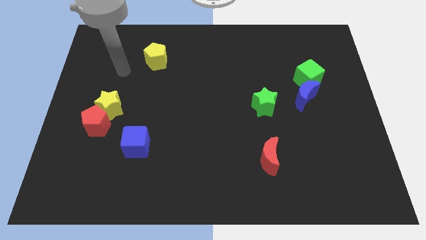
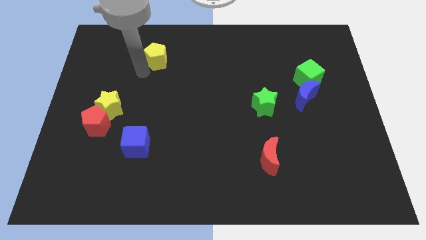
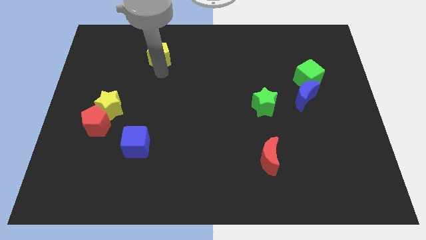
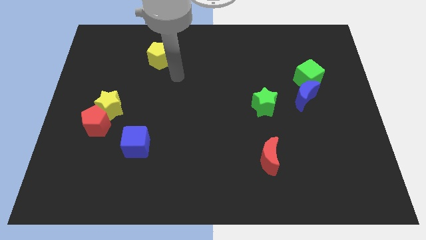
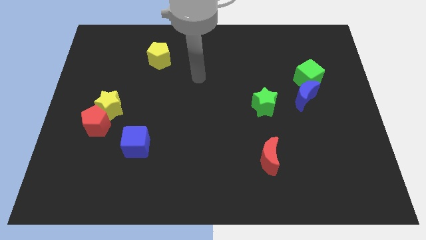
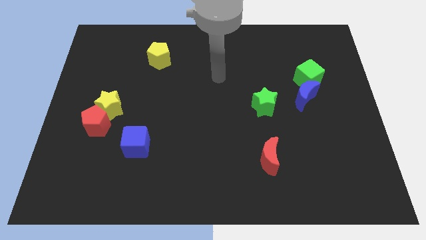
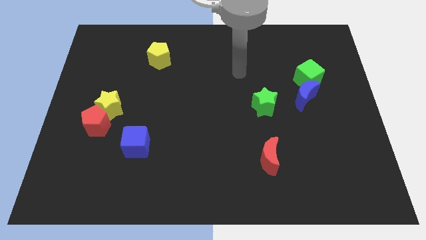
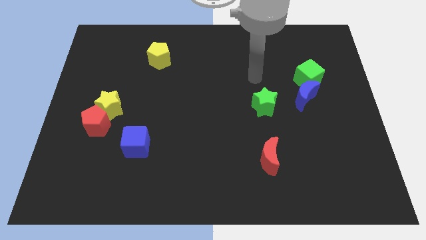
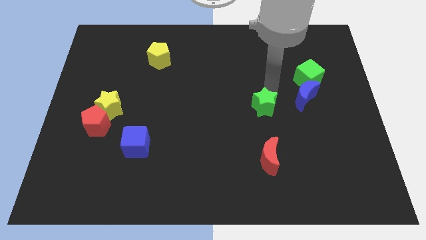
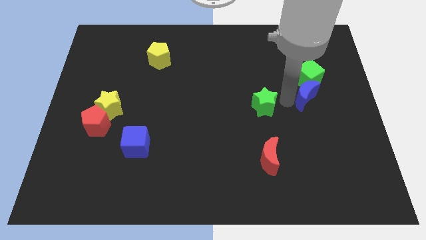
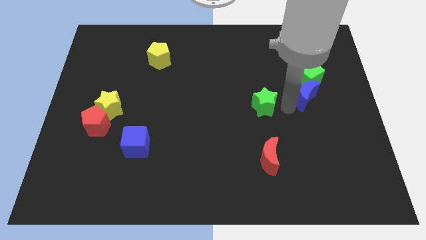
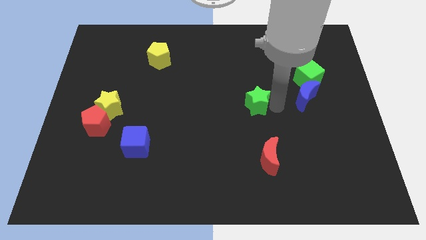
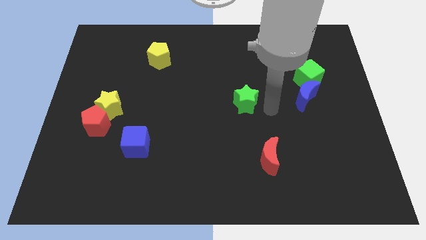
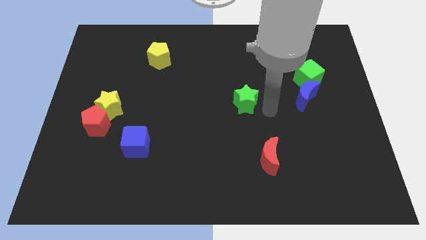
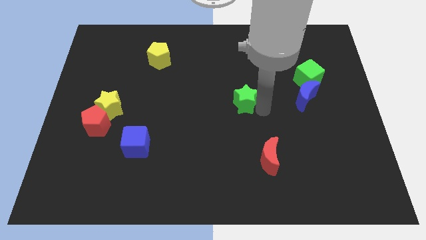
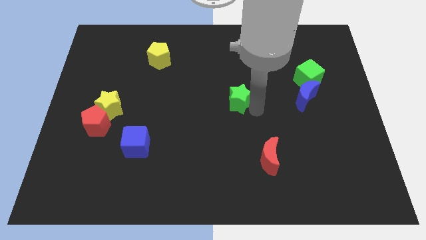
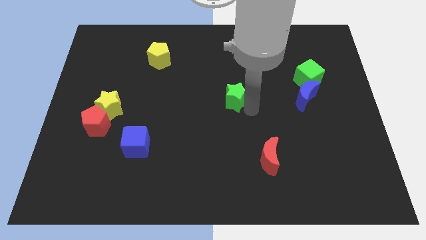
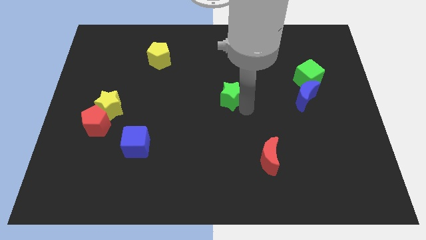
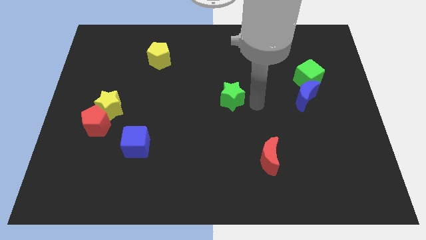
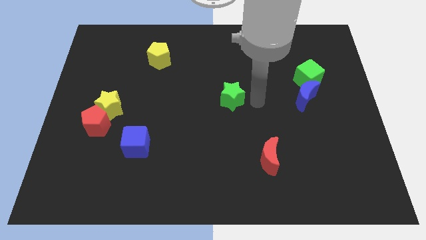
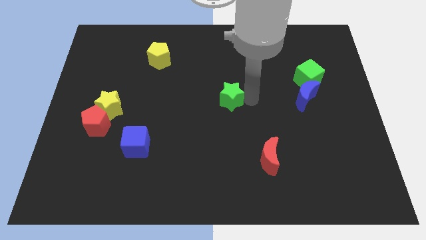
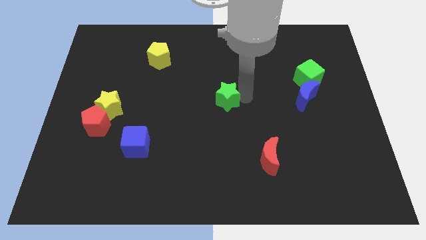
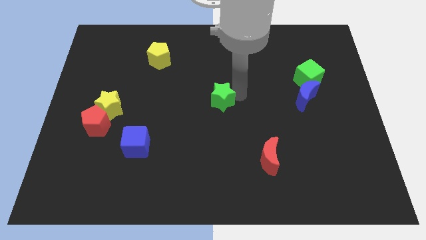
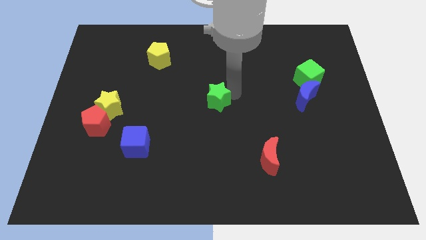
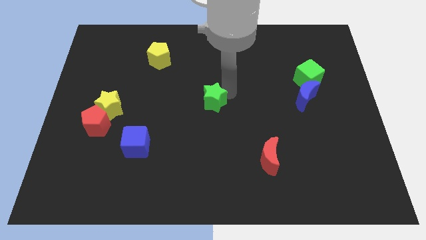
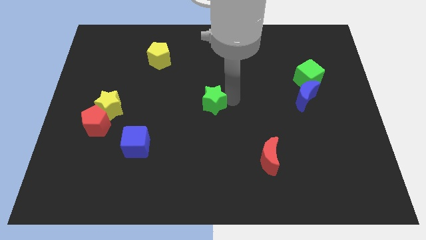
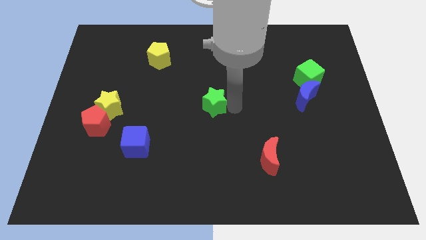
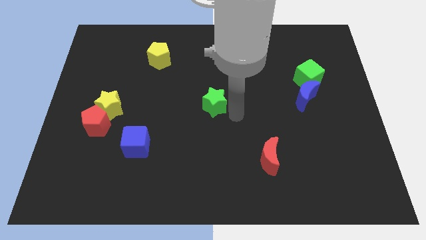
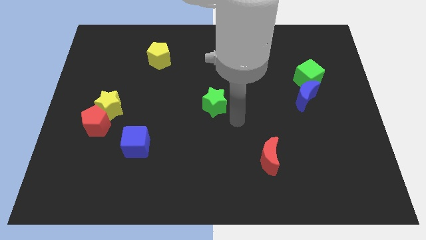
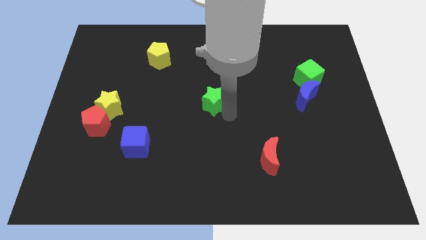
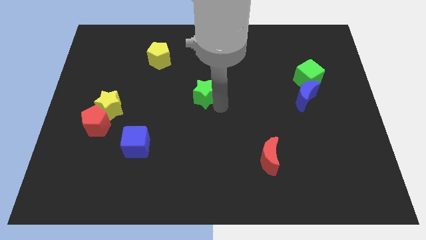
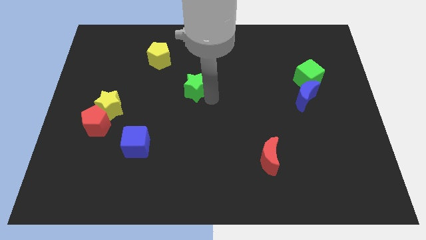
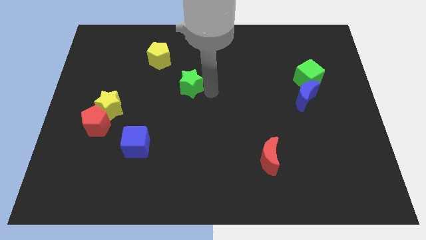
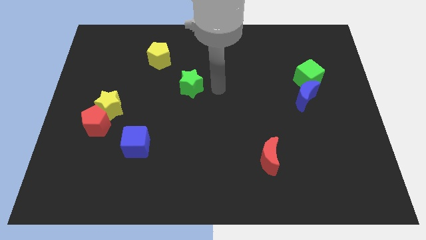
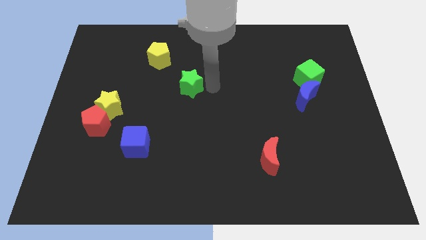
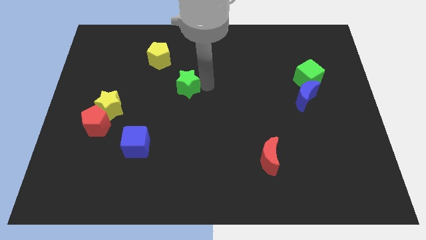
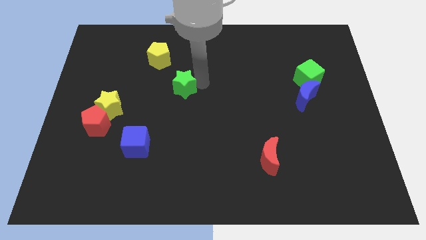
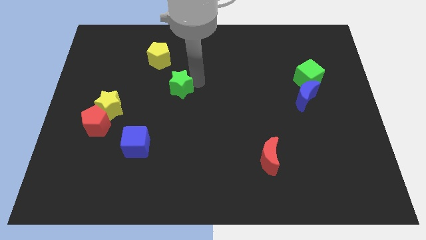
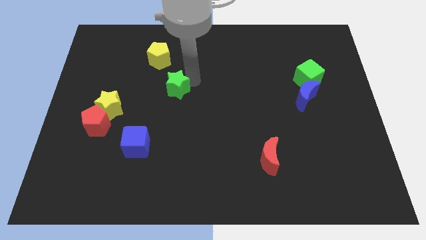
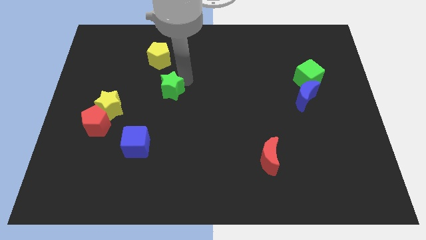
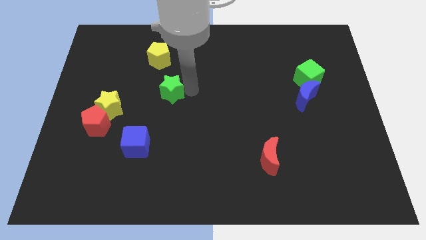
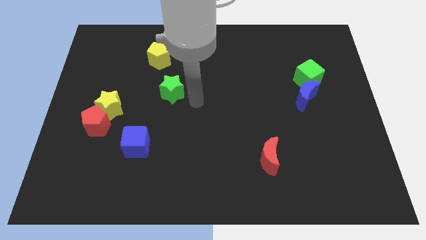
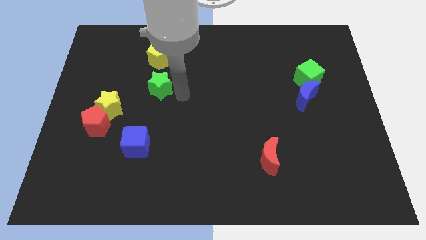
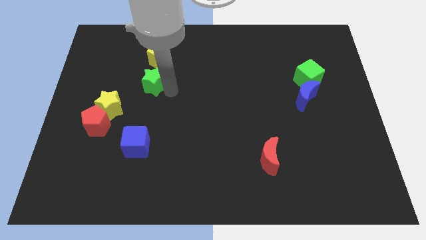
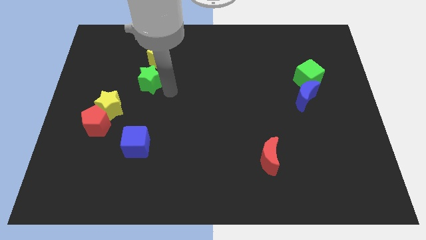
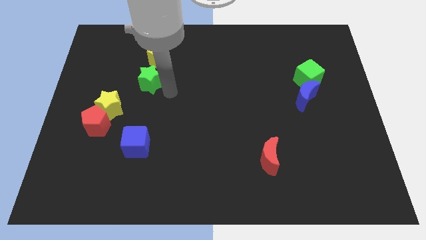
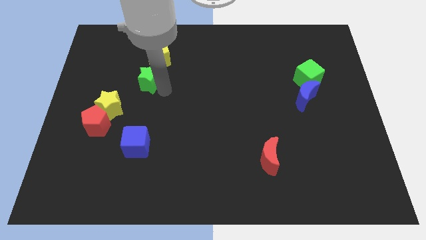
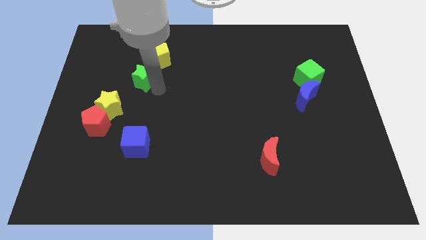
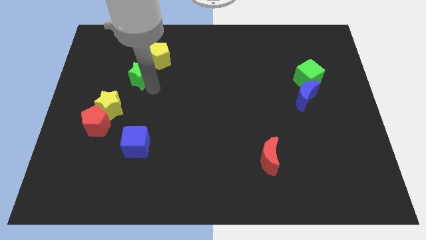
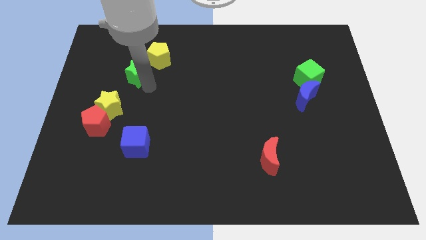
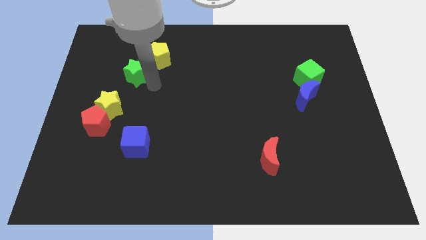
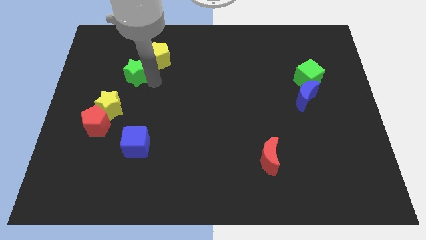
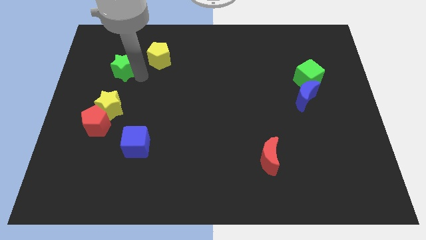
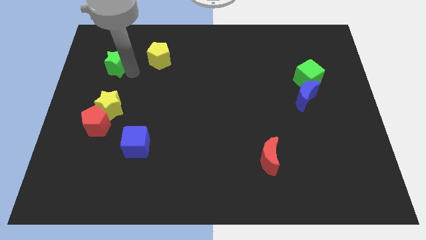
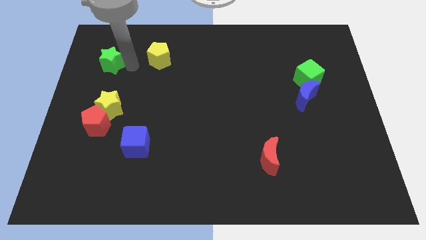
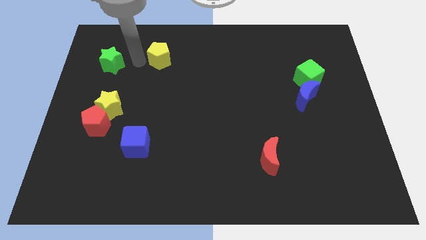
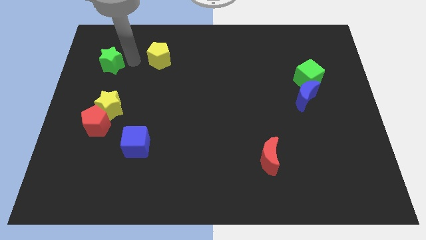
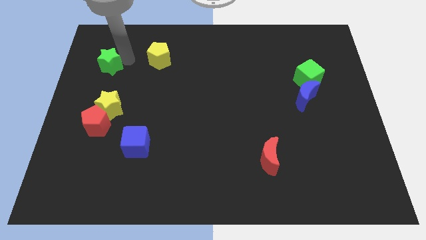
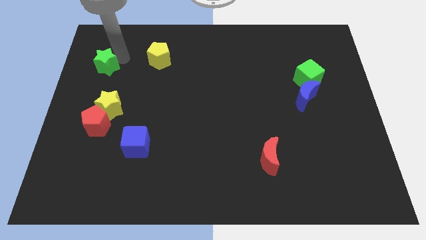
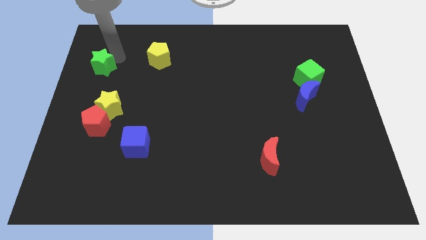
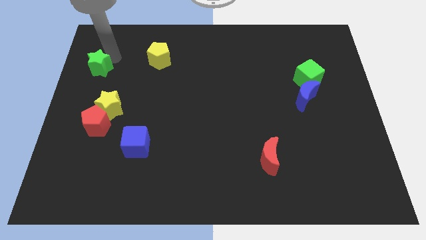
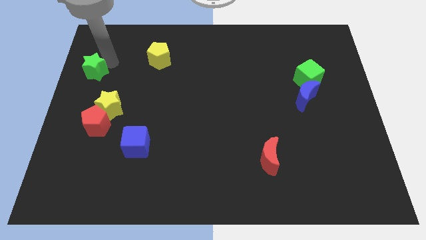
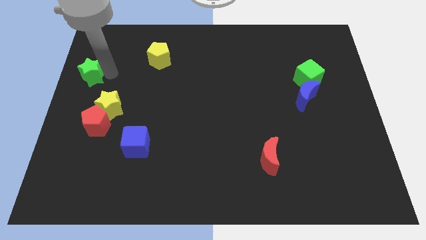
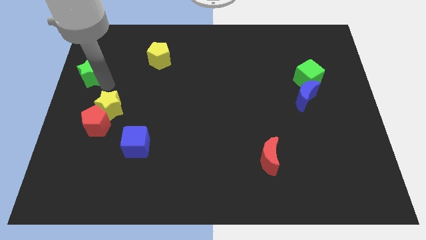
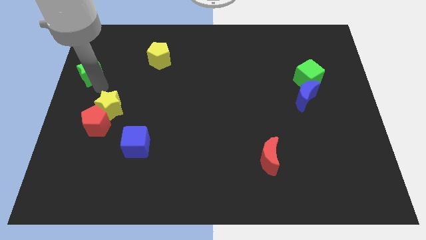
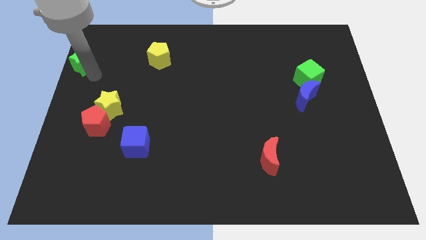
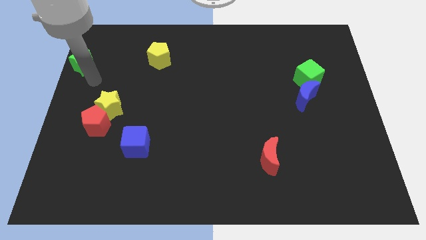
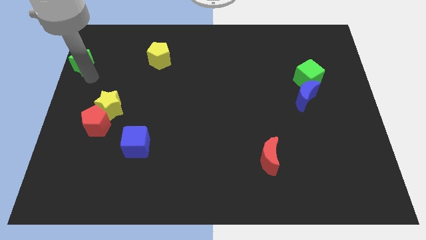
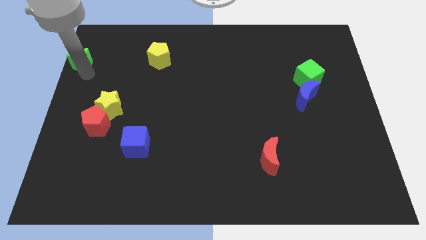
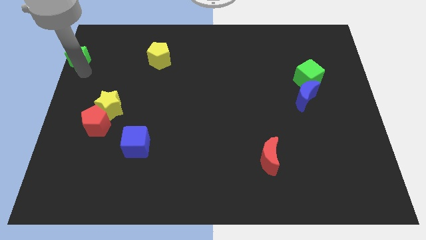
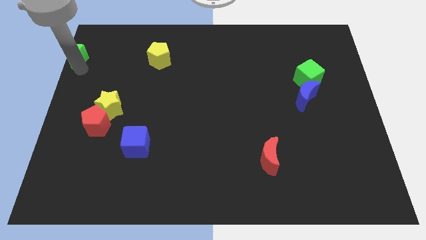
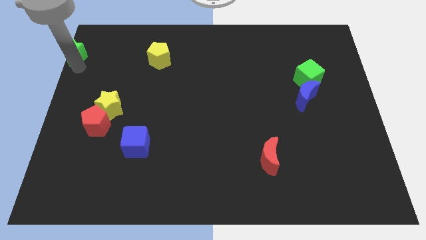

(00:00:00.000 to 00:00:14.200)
move the green star to the top left of the board
